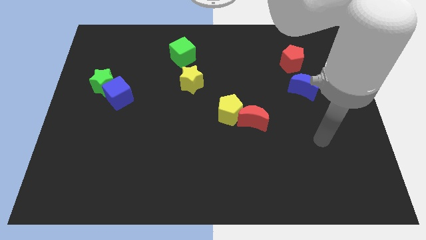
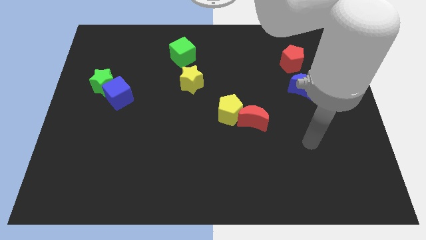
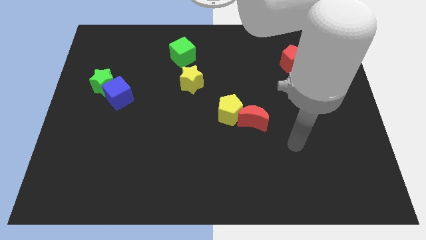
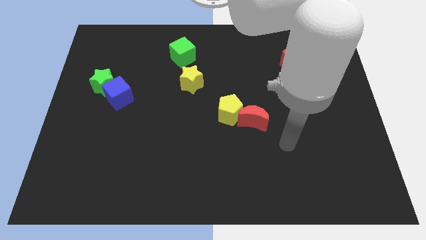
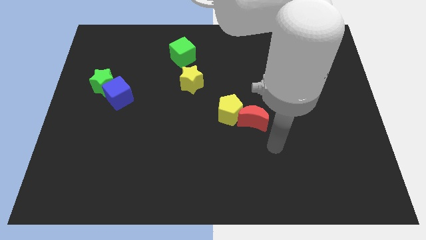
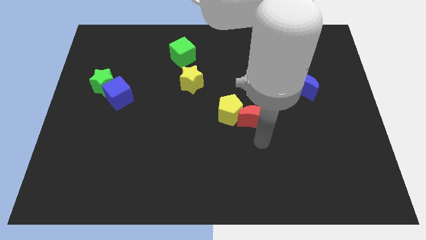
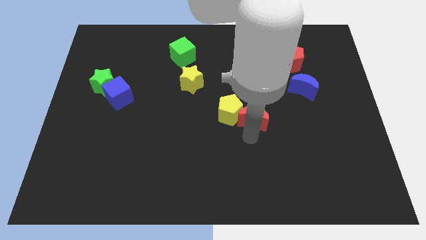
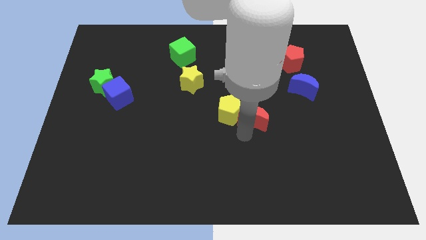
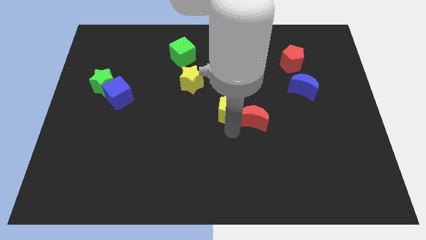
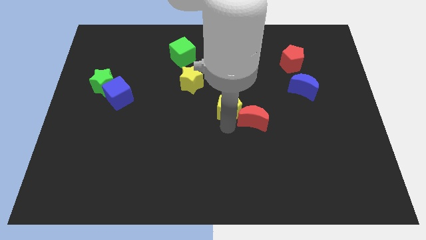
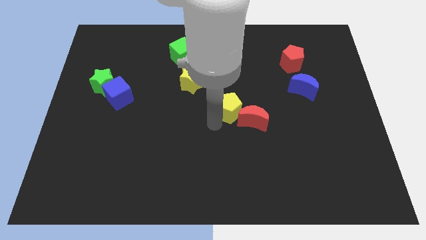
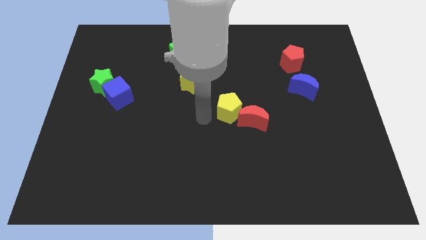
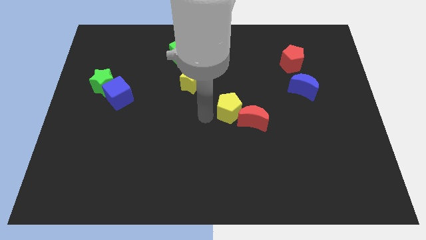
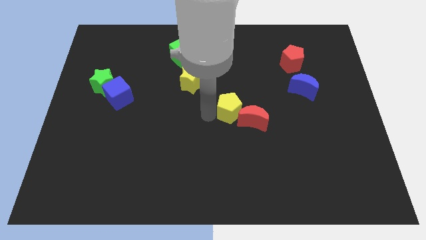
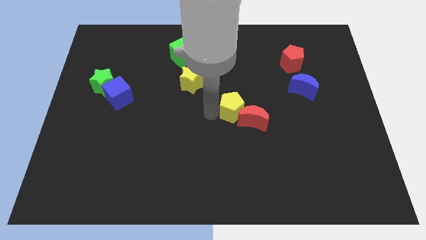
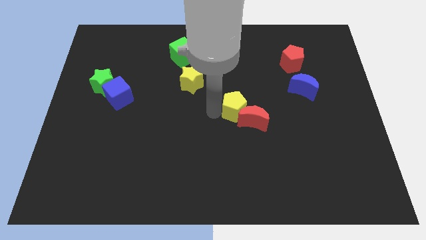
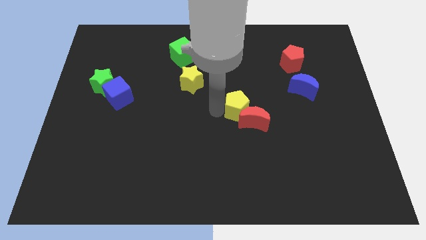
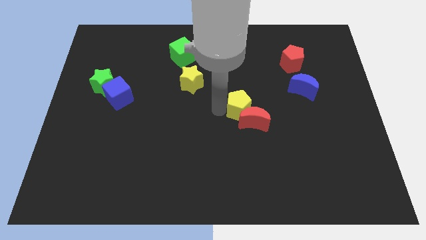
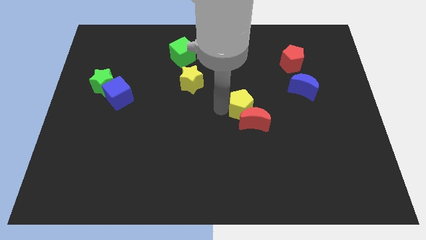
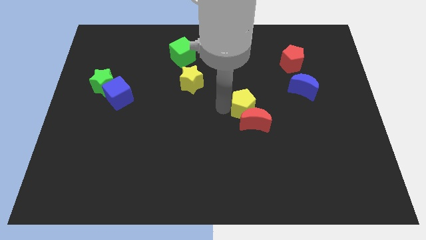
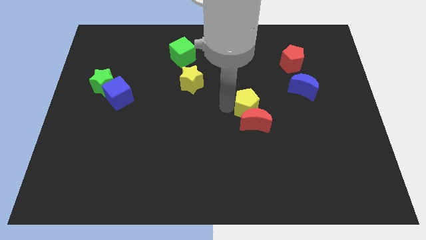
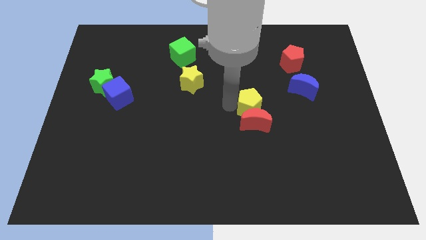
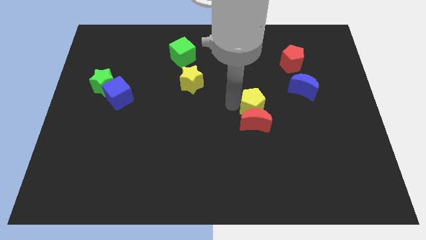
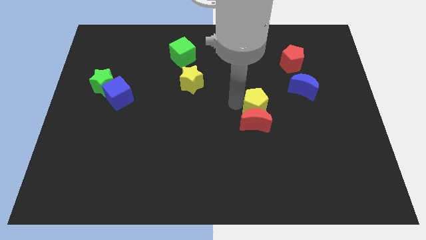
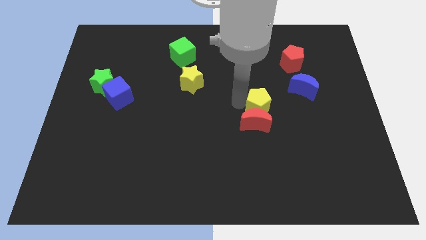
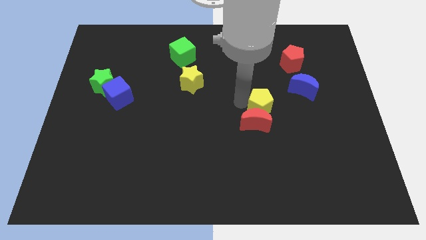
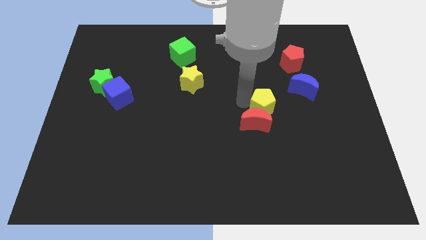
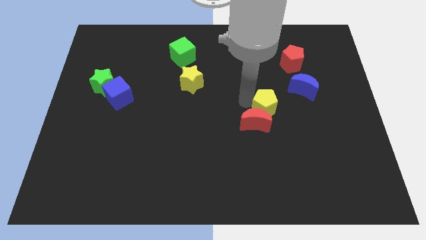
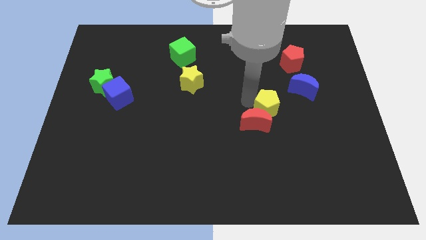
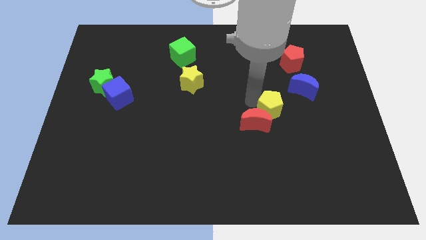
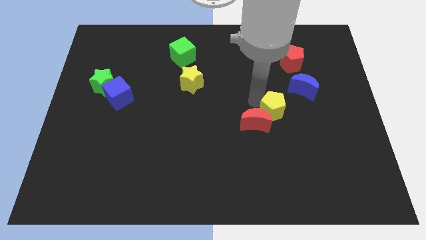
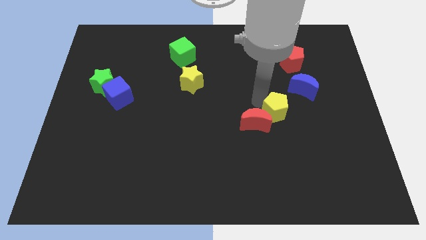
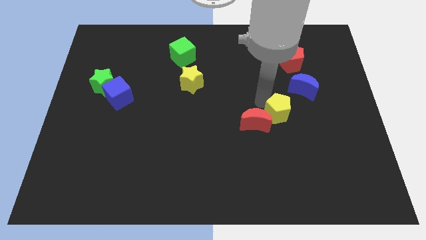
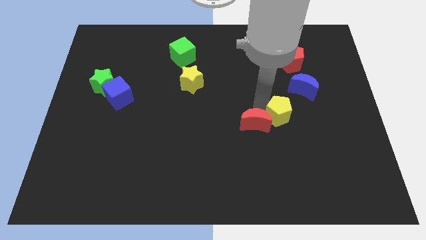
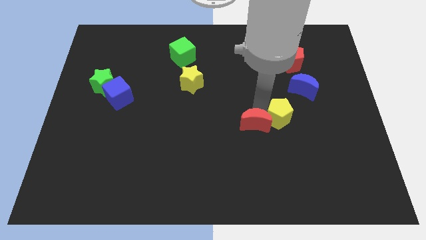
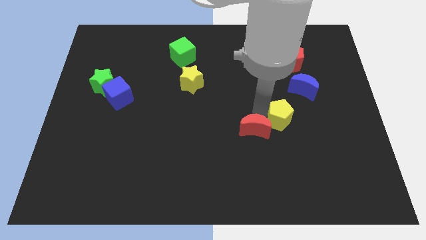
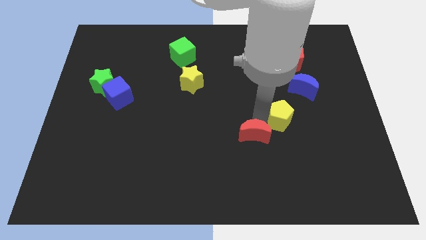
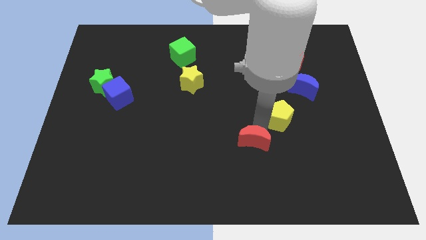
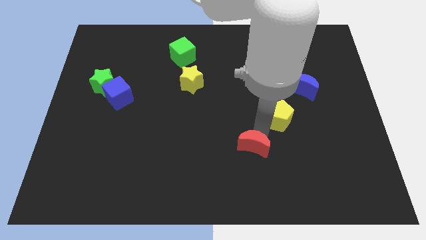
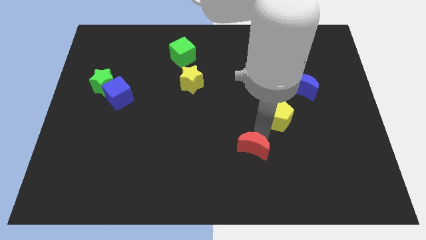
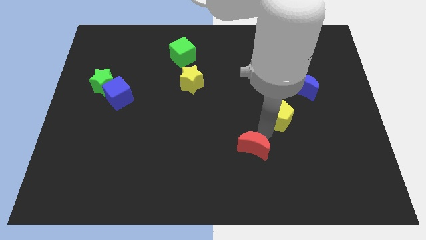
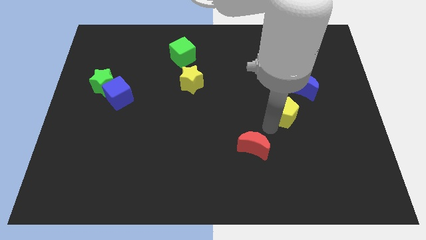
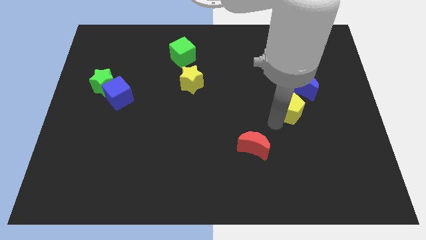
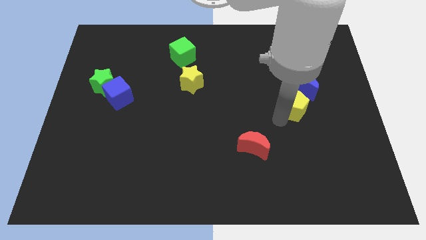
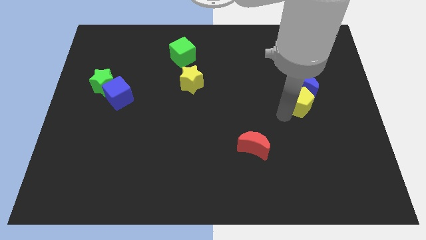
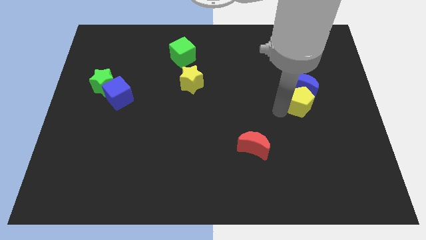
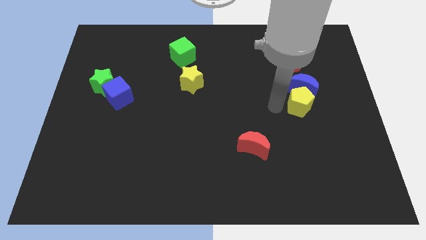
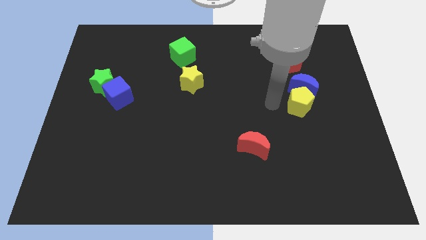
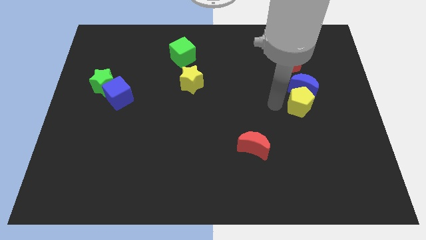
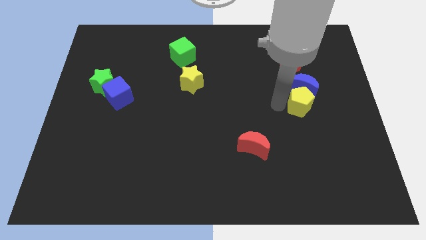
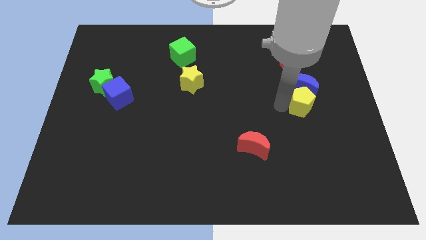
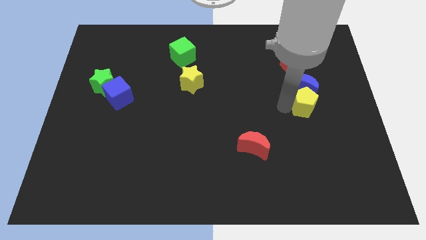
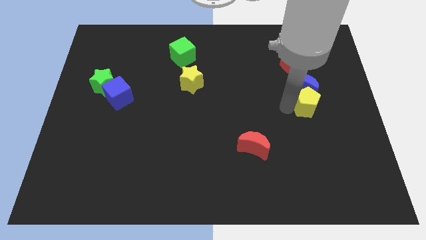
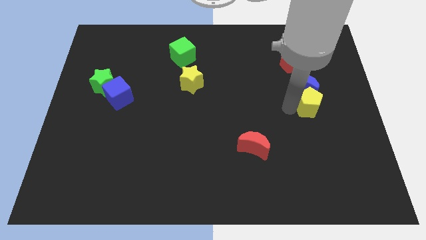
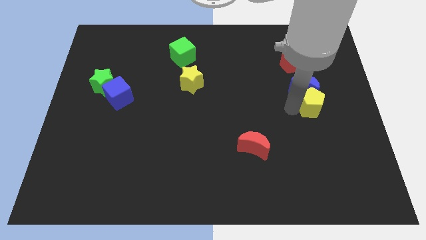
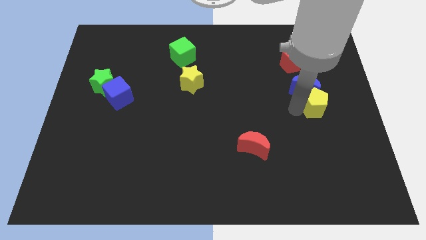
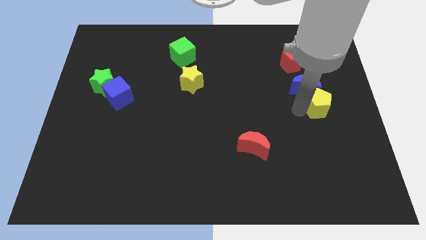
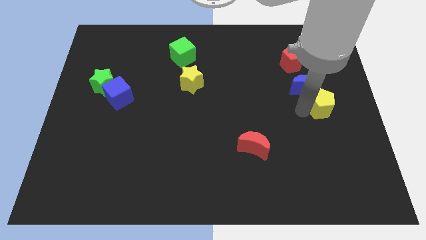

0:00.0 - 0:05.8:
slide the yellow pentagon to the right side of the board

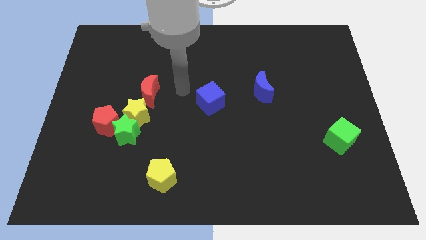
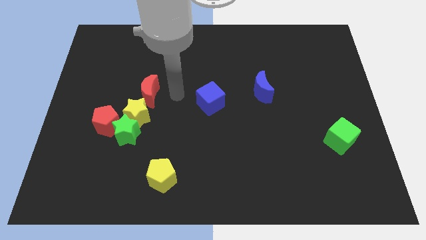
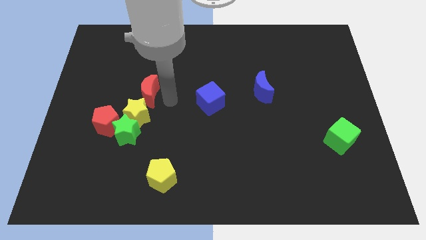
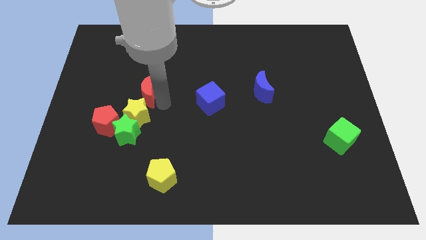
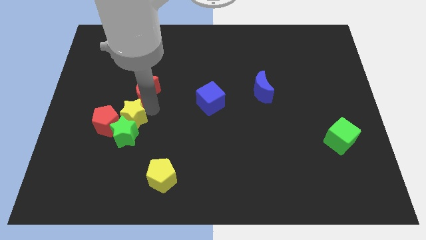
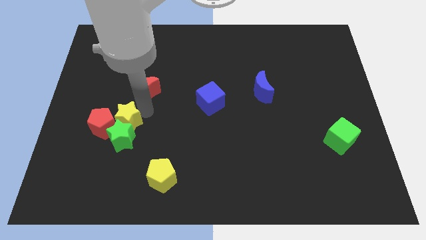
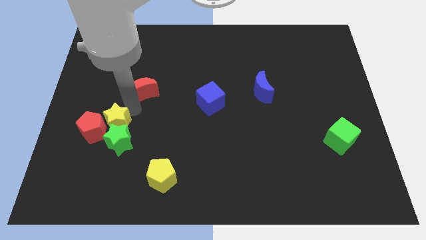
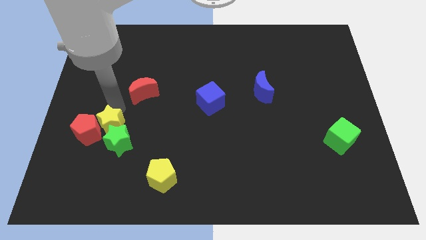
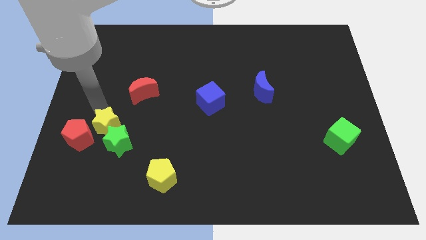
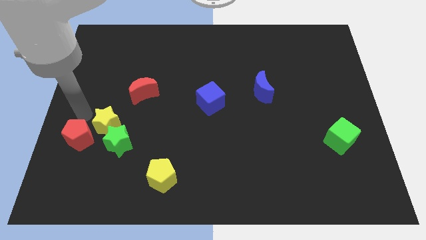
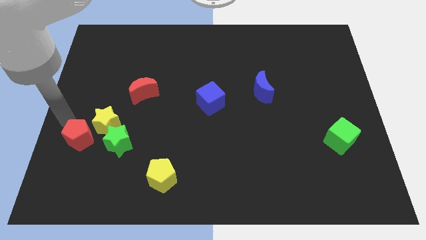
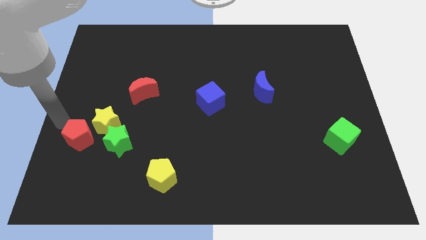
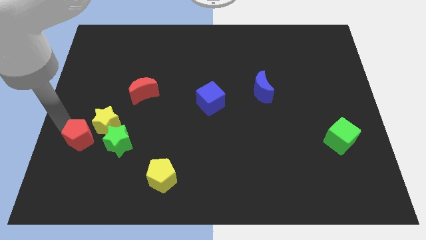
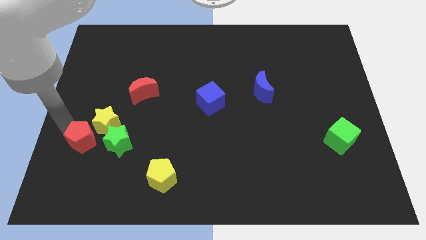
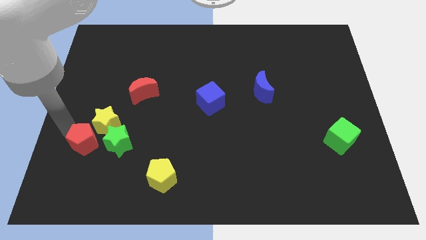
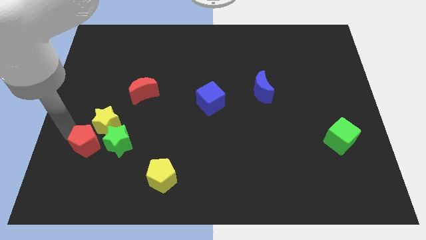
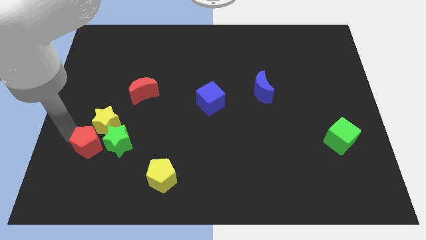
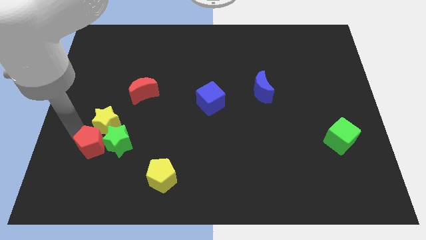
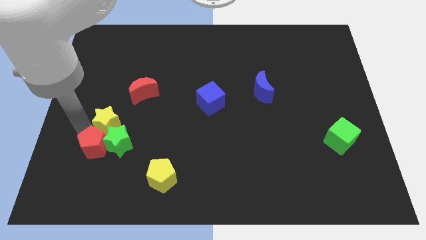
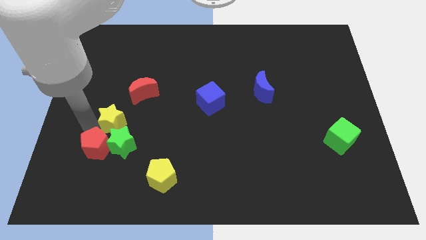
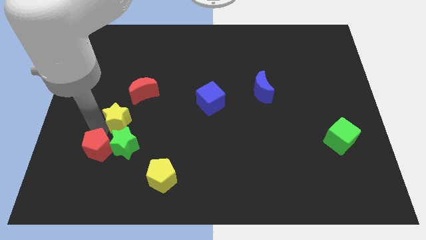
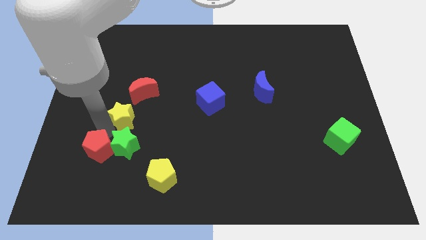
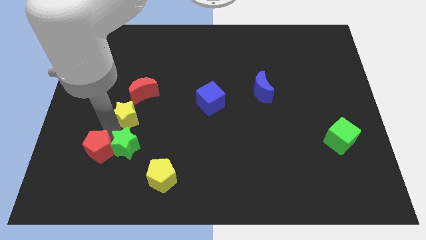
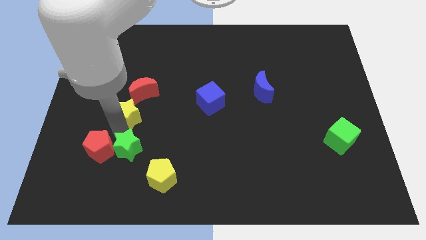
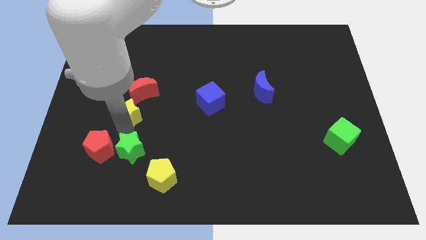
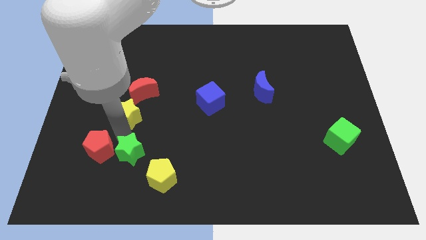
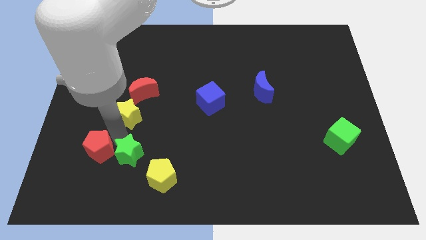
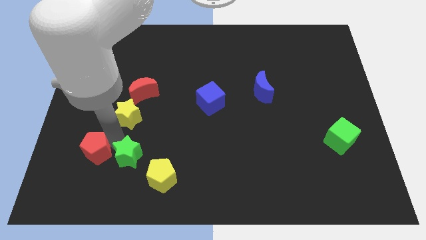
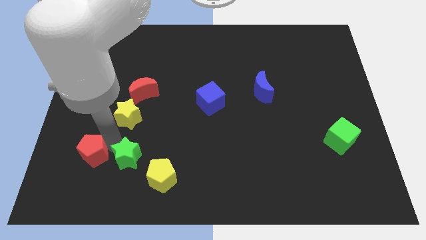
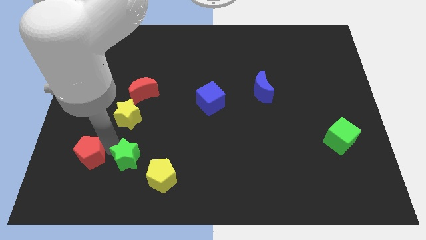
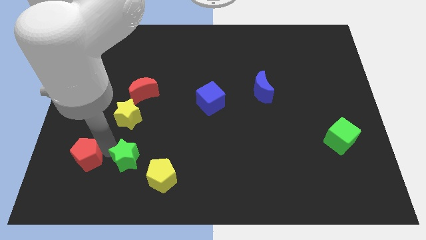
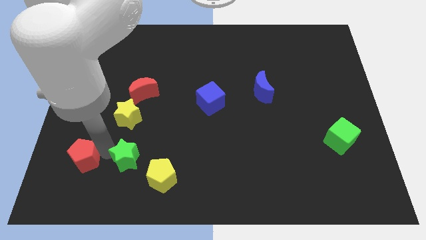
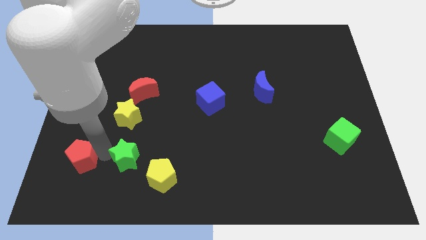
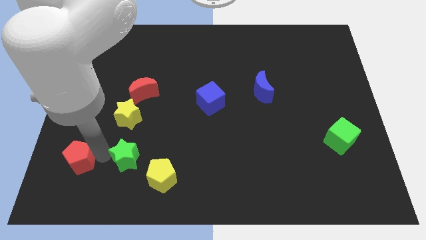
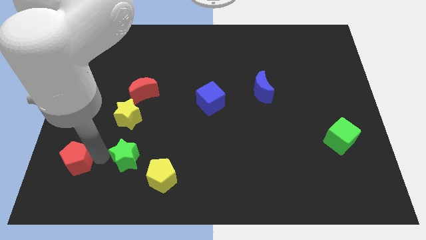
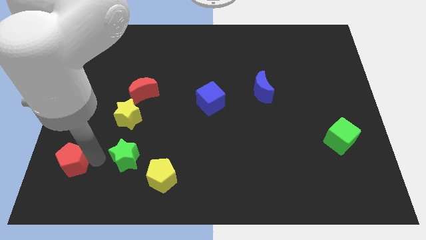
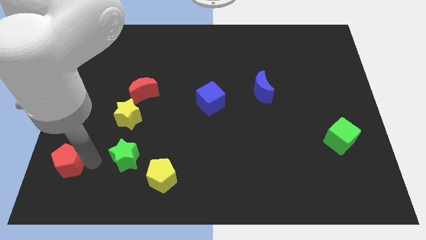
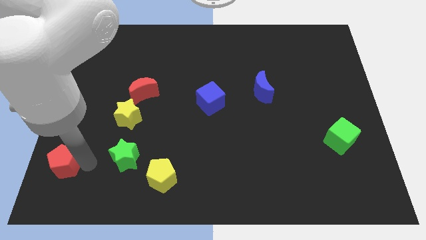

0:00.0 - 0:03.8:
put the red pentagon to the lower left corner
